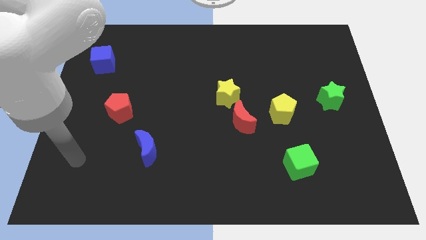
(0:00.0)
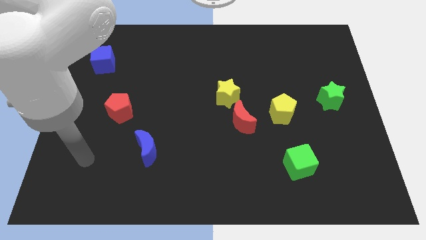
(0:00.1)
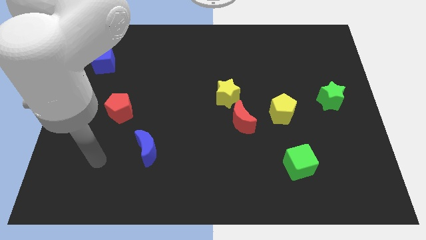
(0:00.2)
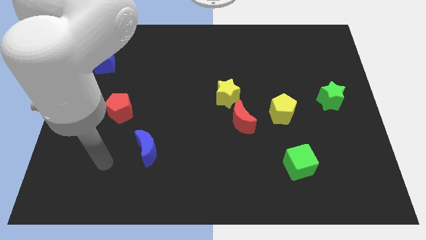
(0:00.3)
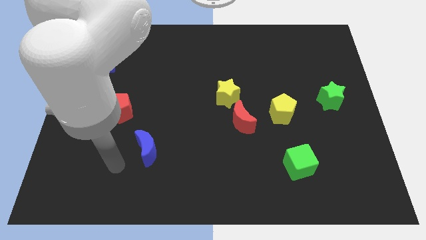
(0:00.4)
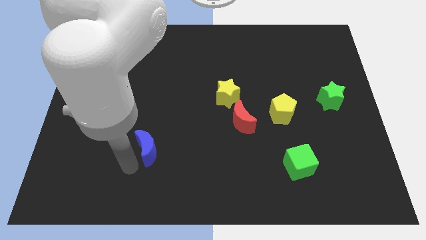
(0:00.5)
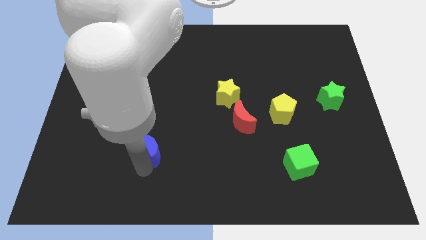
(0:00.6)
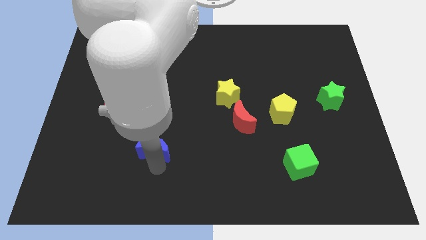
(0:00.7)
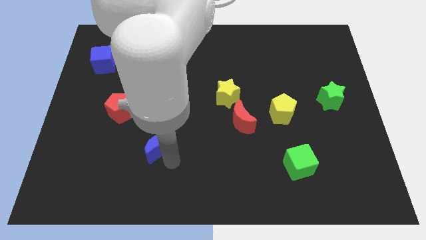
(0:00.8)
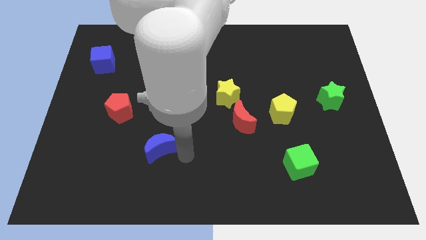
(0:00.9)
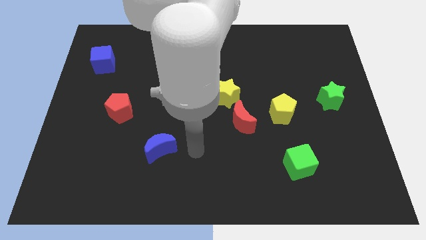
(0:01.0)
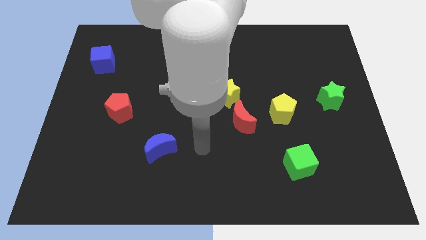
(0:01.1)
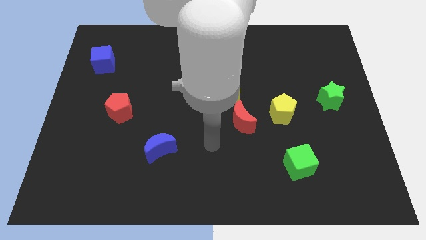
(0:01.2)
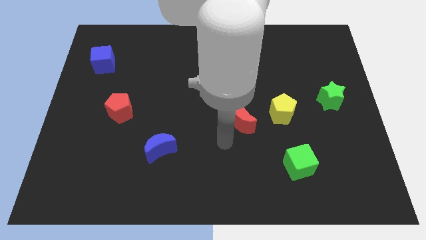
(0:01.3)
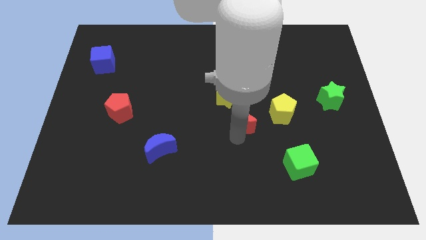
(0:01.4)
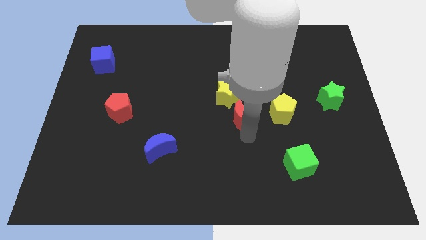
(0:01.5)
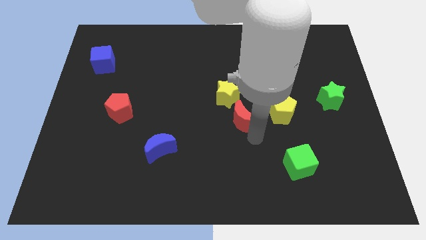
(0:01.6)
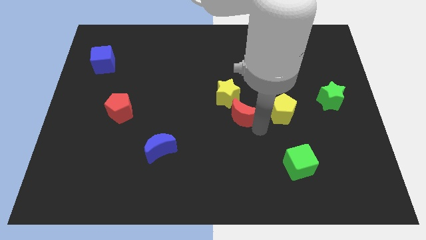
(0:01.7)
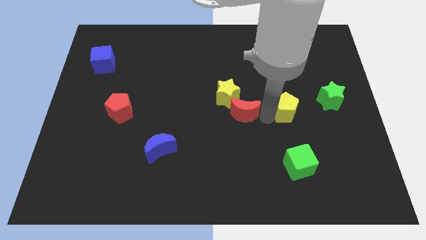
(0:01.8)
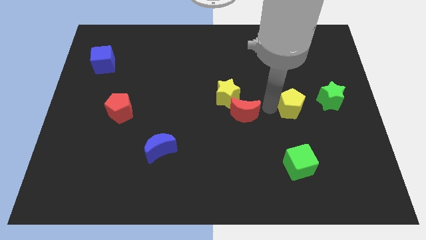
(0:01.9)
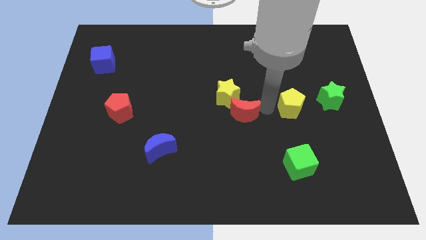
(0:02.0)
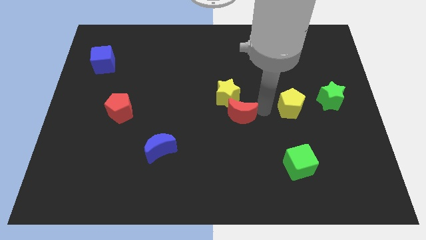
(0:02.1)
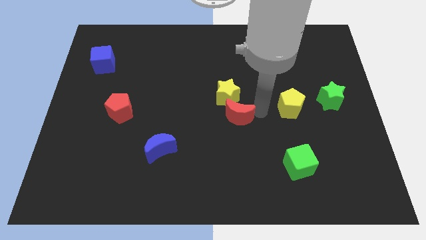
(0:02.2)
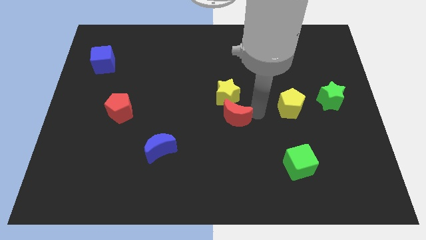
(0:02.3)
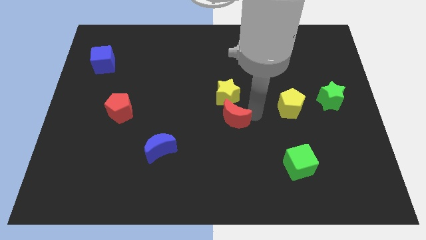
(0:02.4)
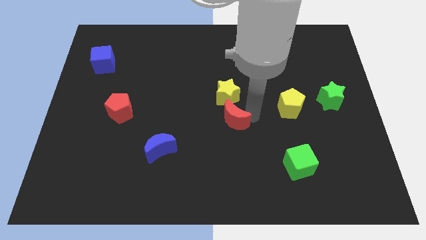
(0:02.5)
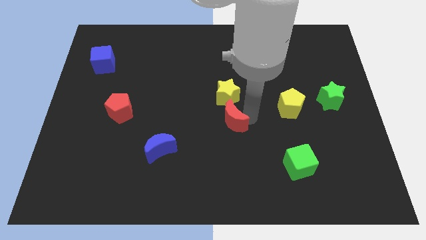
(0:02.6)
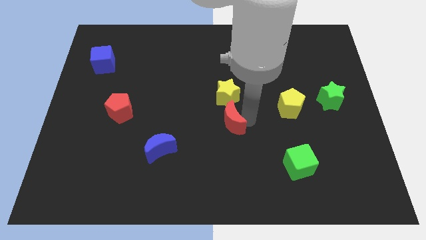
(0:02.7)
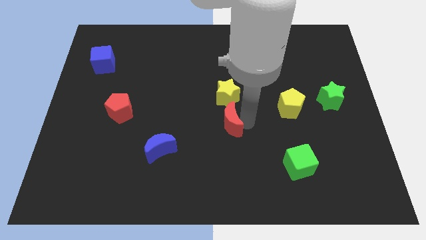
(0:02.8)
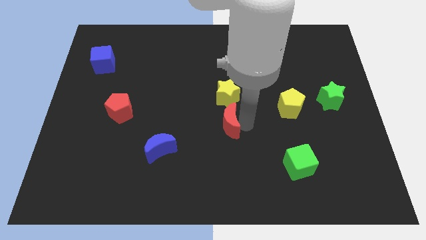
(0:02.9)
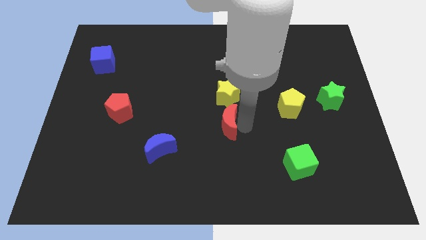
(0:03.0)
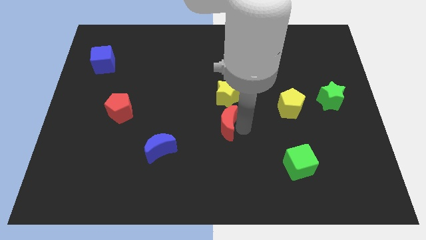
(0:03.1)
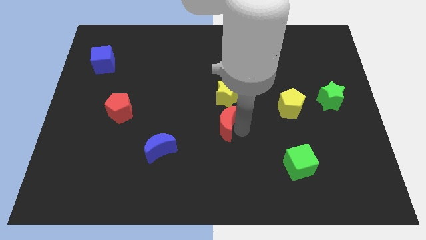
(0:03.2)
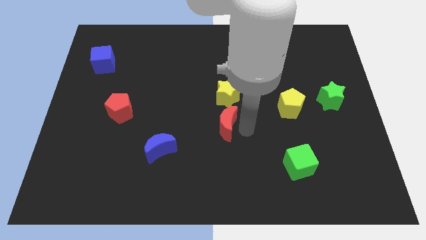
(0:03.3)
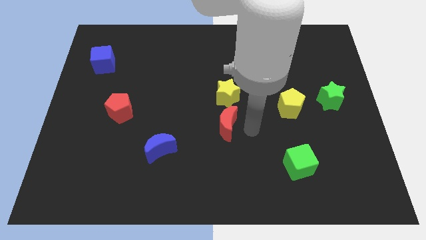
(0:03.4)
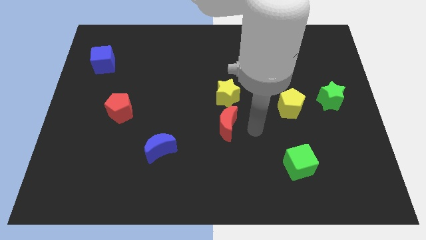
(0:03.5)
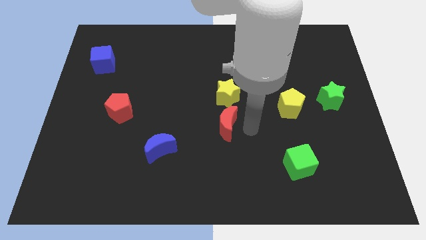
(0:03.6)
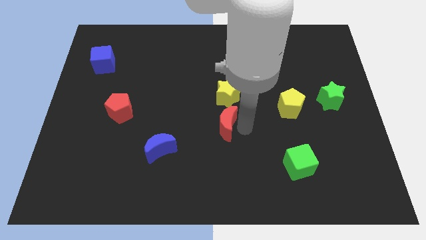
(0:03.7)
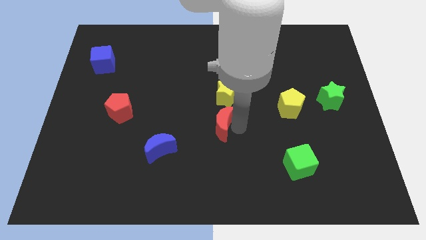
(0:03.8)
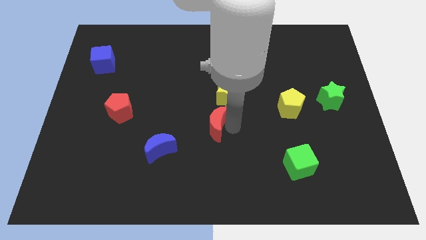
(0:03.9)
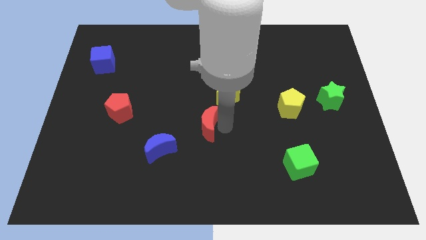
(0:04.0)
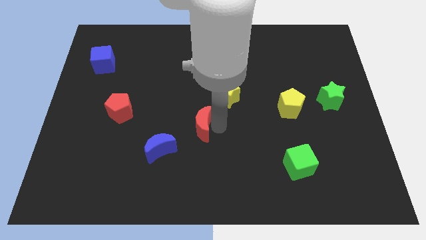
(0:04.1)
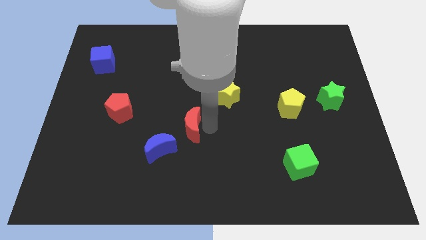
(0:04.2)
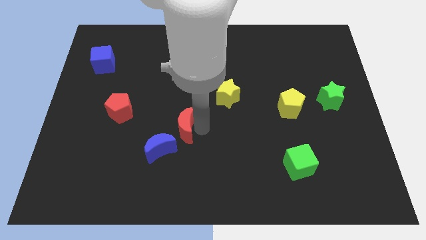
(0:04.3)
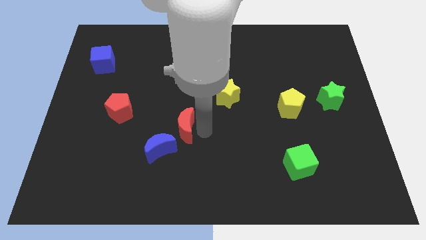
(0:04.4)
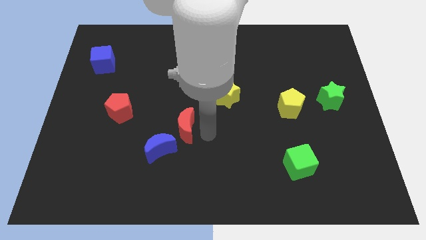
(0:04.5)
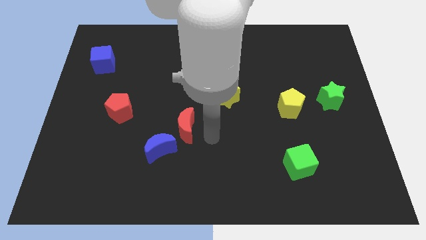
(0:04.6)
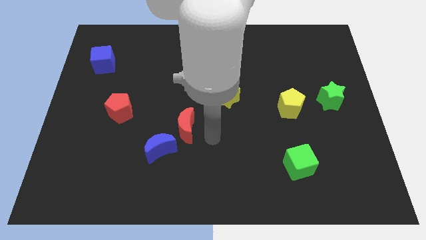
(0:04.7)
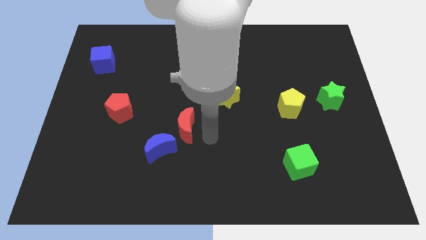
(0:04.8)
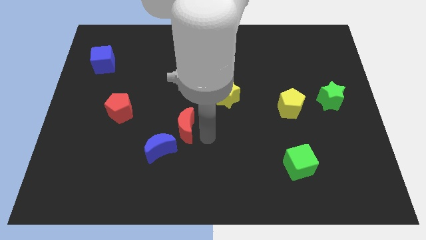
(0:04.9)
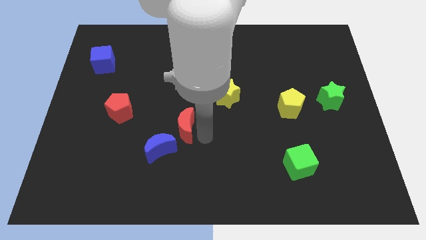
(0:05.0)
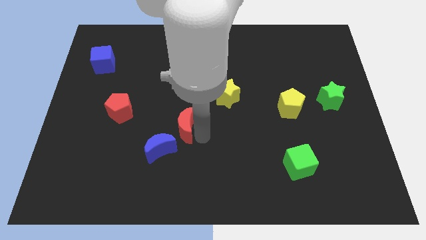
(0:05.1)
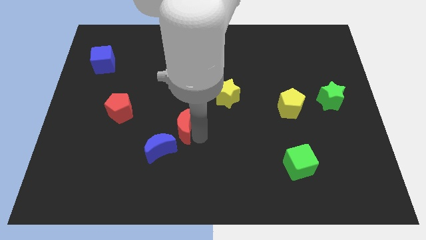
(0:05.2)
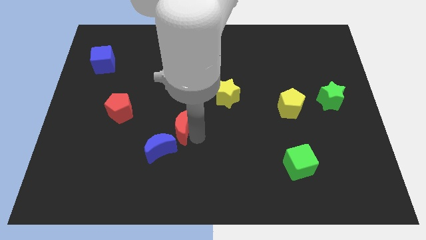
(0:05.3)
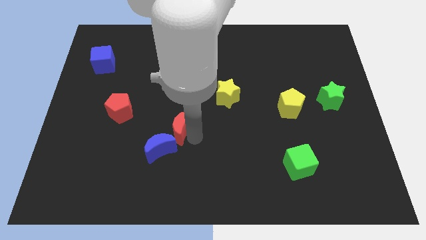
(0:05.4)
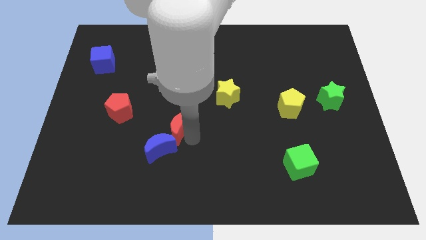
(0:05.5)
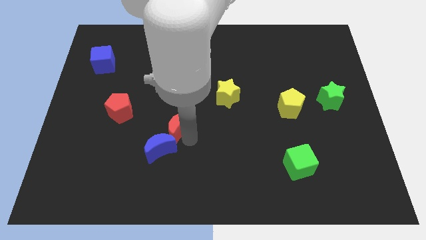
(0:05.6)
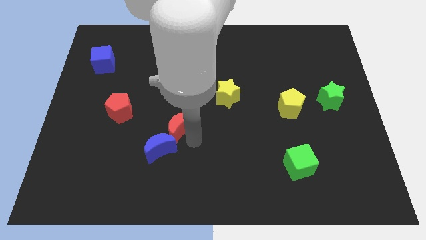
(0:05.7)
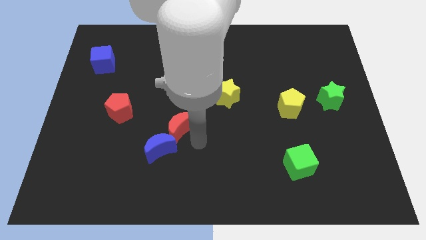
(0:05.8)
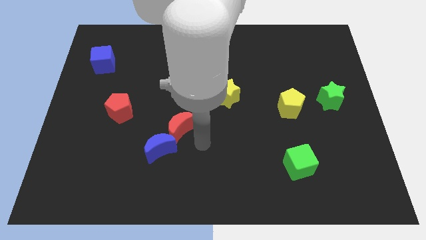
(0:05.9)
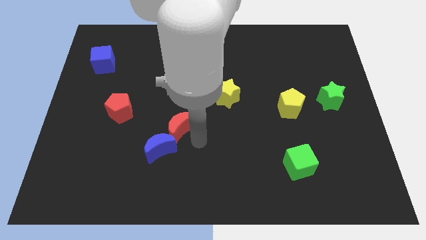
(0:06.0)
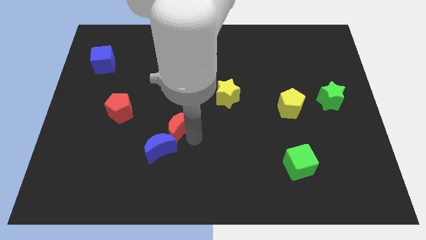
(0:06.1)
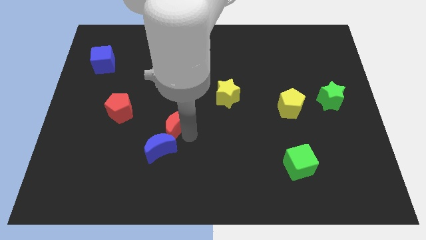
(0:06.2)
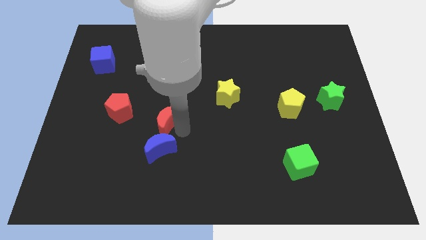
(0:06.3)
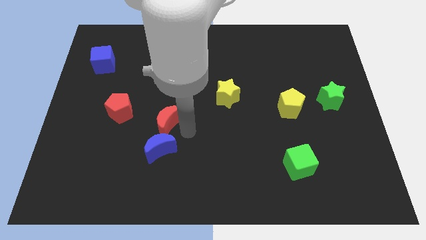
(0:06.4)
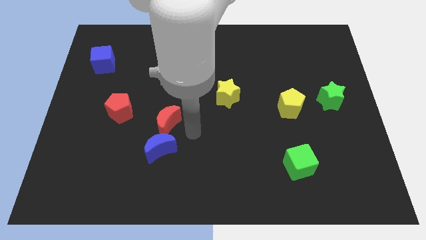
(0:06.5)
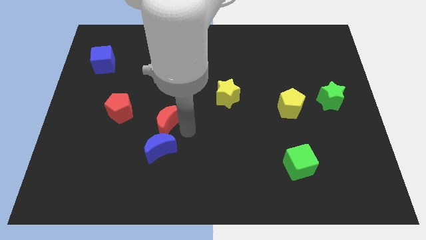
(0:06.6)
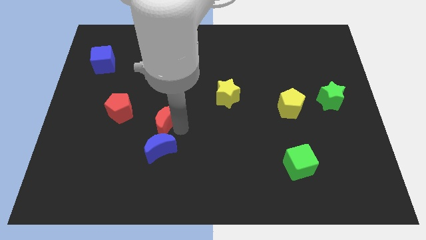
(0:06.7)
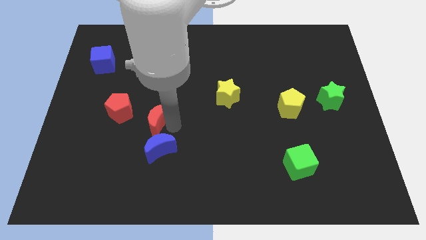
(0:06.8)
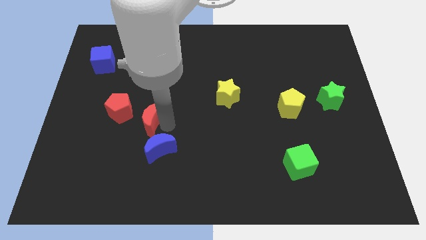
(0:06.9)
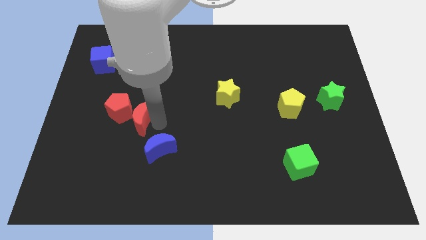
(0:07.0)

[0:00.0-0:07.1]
slide the red moon close to the red pentagon

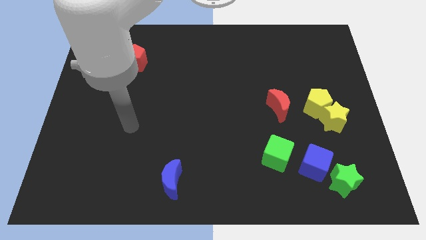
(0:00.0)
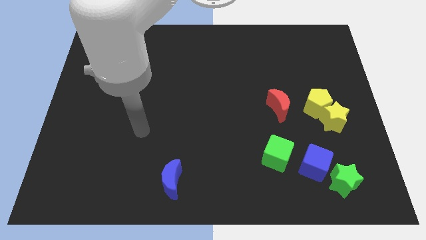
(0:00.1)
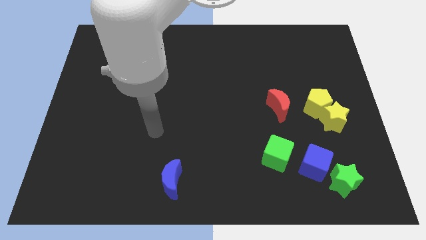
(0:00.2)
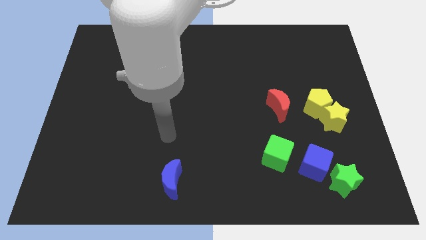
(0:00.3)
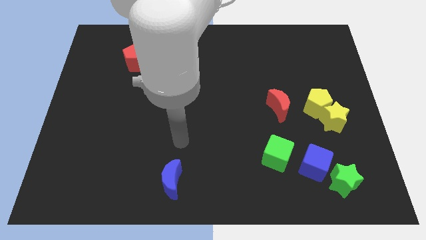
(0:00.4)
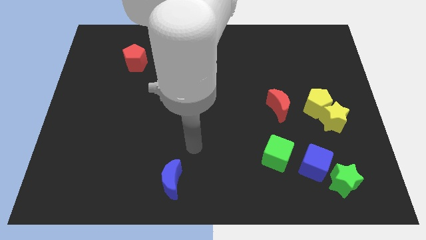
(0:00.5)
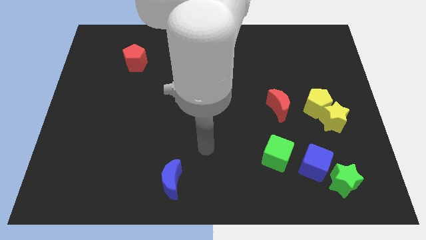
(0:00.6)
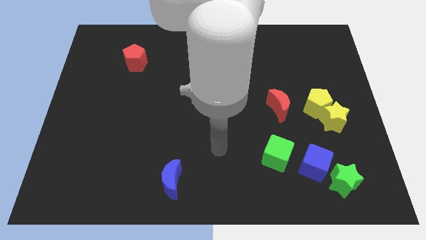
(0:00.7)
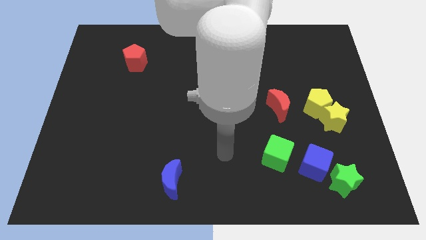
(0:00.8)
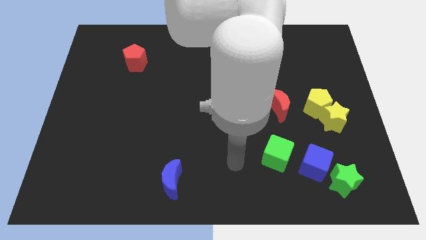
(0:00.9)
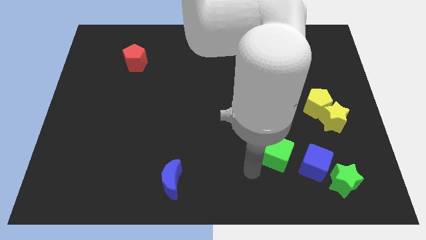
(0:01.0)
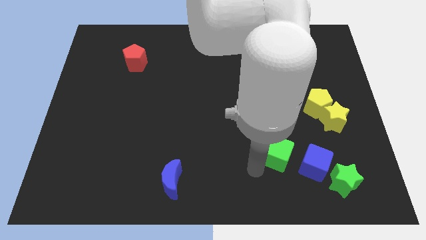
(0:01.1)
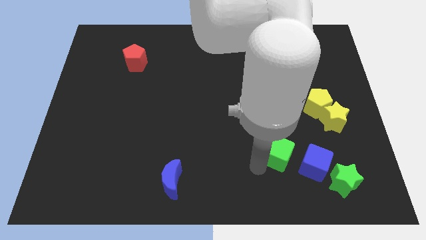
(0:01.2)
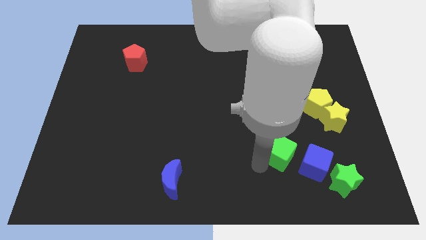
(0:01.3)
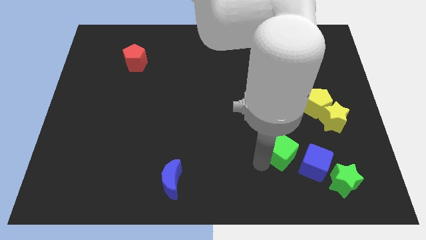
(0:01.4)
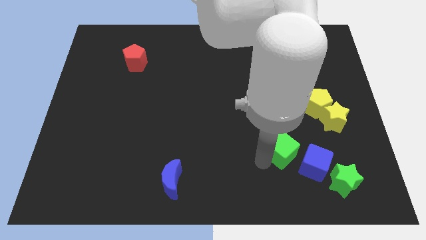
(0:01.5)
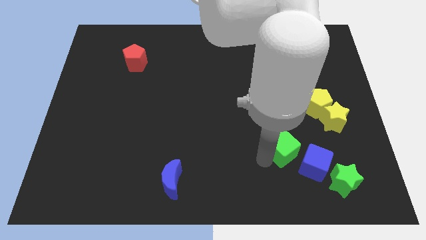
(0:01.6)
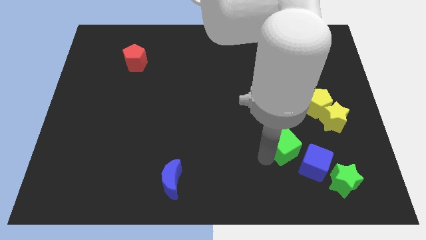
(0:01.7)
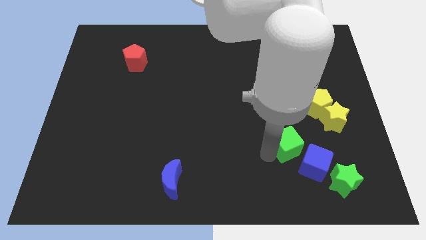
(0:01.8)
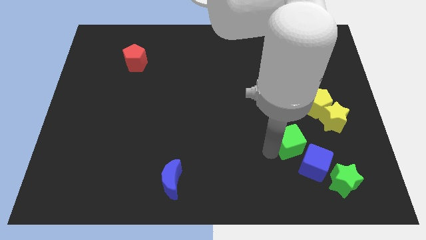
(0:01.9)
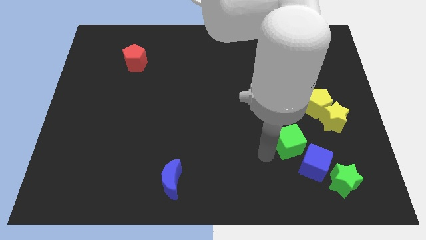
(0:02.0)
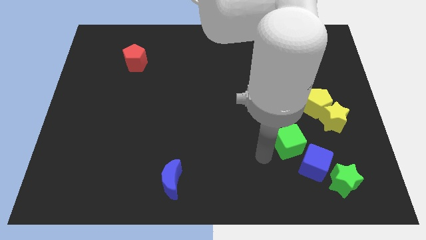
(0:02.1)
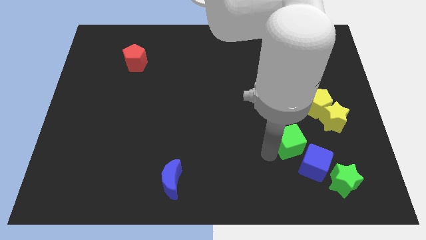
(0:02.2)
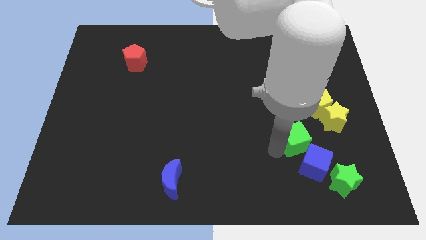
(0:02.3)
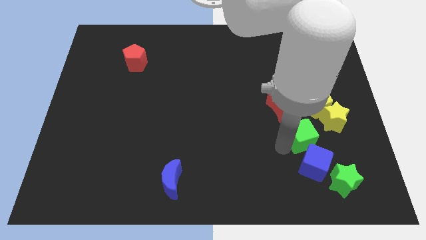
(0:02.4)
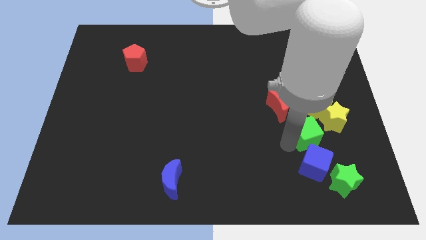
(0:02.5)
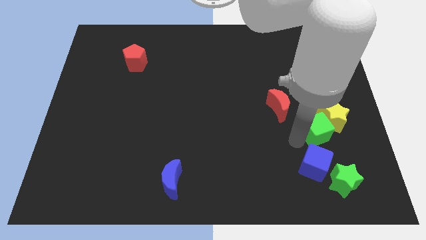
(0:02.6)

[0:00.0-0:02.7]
slide the green cube close to the yellow star
